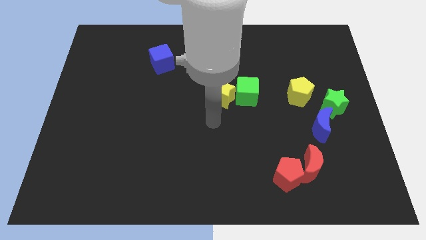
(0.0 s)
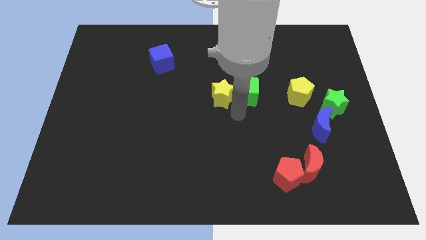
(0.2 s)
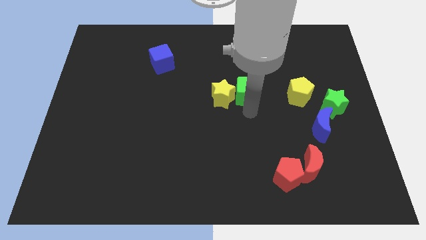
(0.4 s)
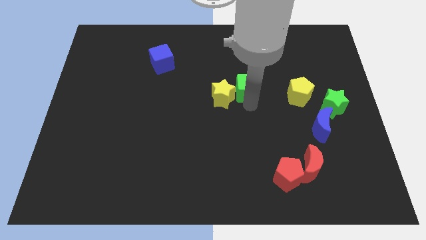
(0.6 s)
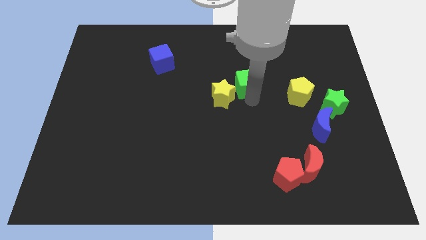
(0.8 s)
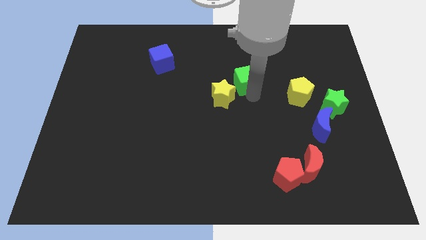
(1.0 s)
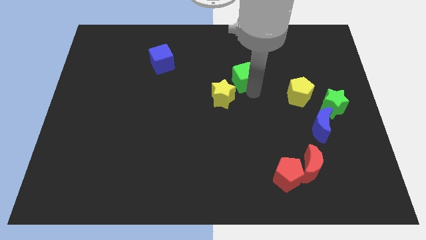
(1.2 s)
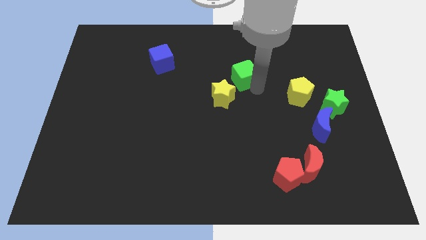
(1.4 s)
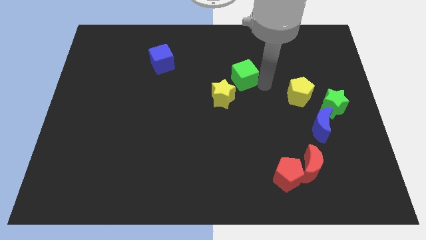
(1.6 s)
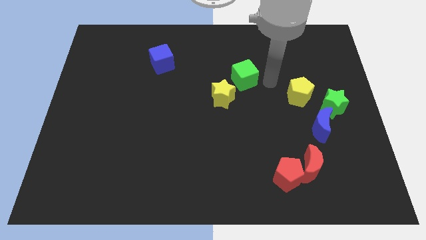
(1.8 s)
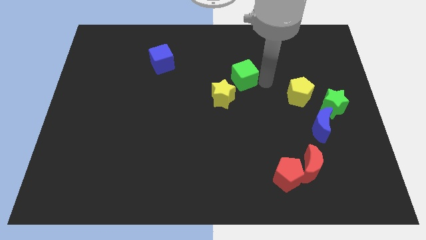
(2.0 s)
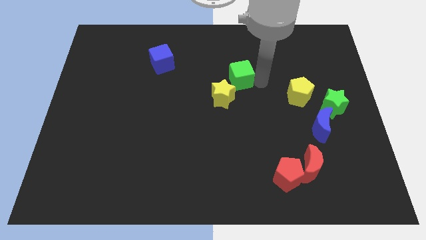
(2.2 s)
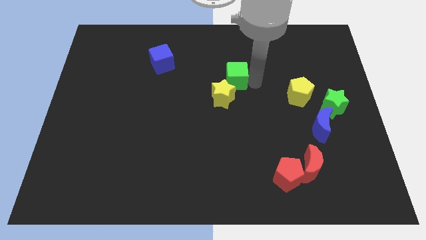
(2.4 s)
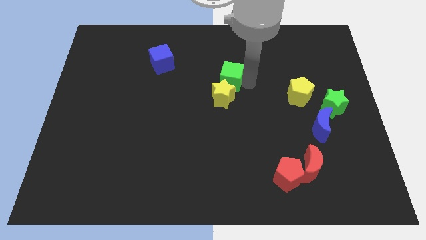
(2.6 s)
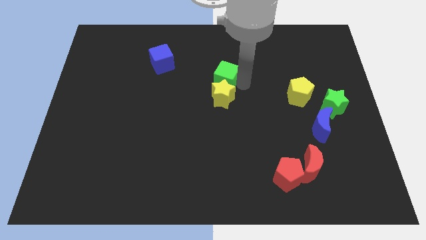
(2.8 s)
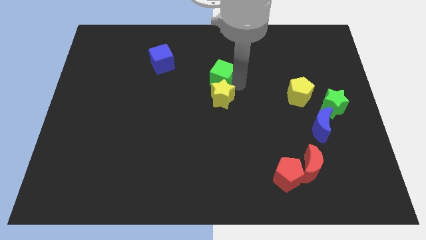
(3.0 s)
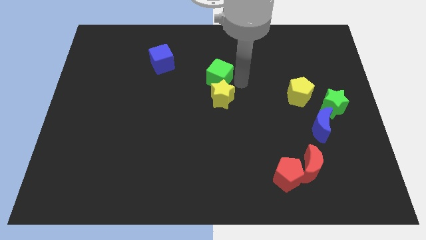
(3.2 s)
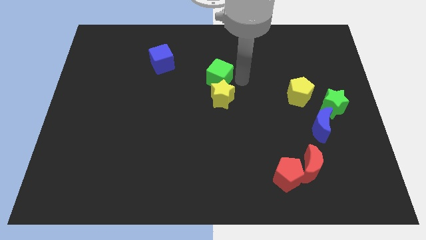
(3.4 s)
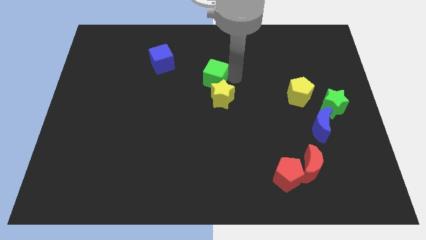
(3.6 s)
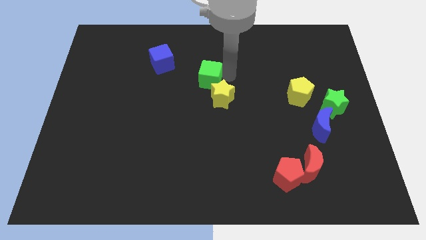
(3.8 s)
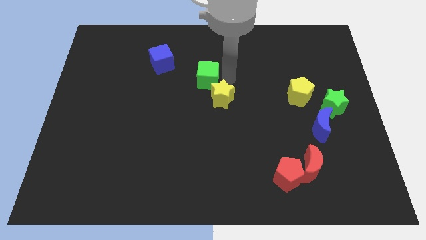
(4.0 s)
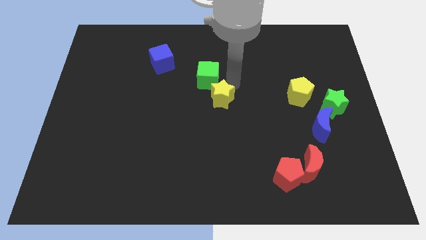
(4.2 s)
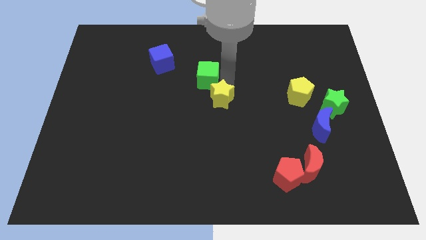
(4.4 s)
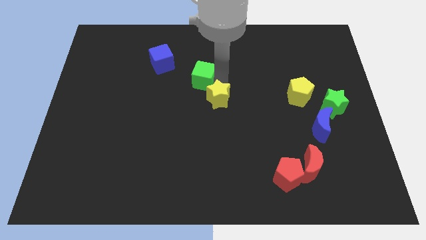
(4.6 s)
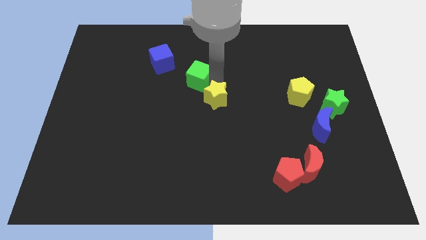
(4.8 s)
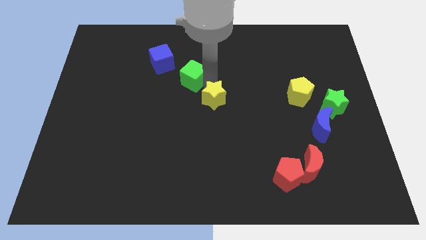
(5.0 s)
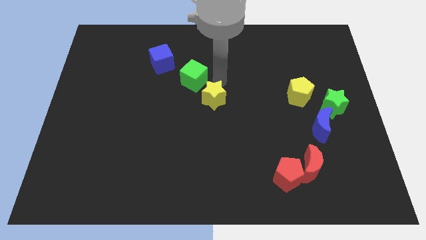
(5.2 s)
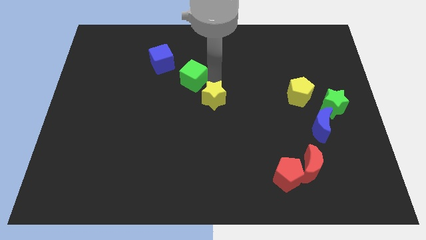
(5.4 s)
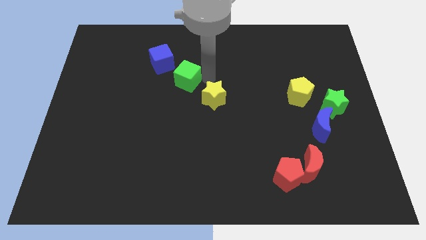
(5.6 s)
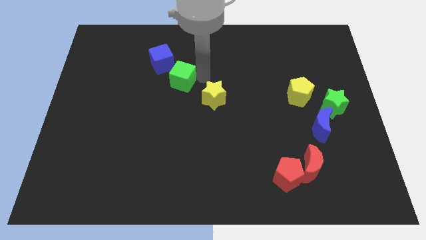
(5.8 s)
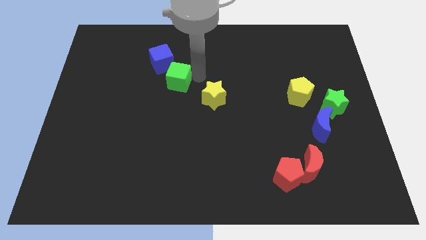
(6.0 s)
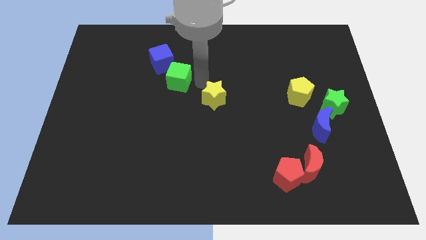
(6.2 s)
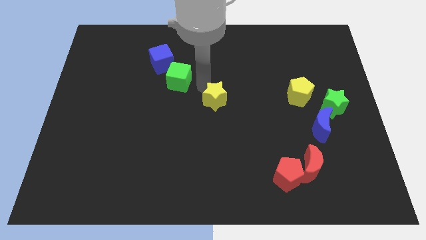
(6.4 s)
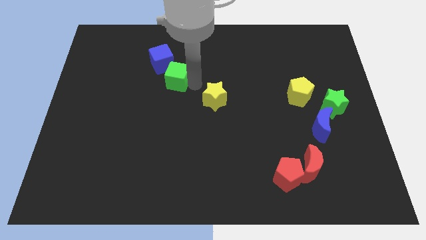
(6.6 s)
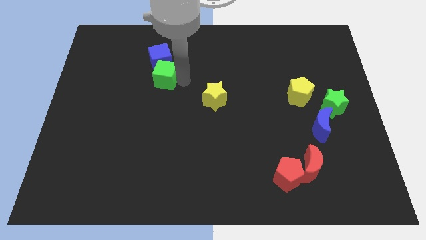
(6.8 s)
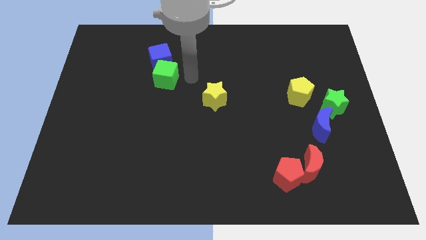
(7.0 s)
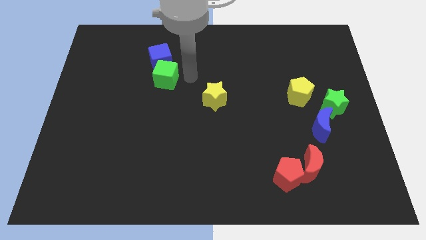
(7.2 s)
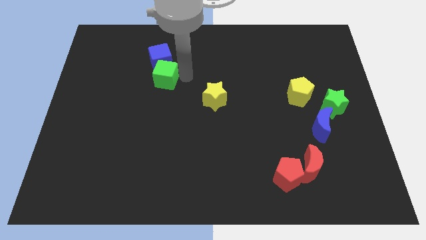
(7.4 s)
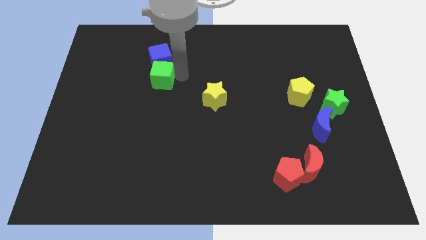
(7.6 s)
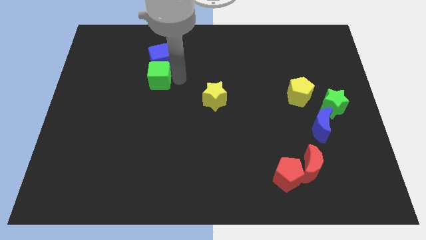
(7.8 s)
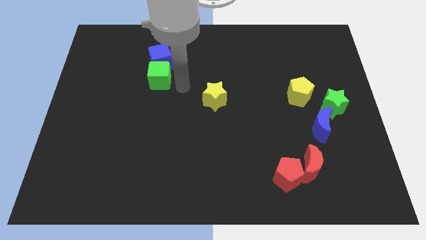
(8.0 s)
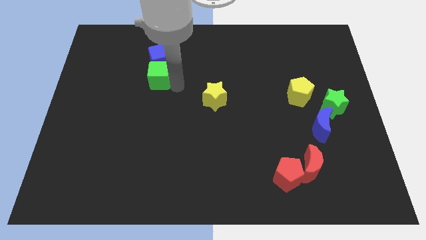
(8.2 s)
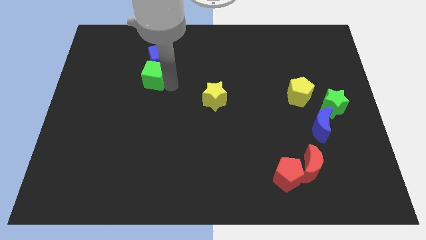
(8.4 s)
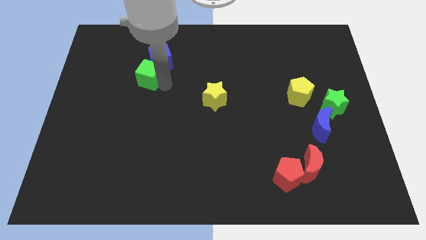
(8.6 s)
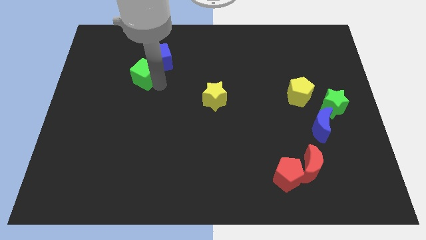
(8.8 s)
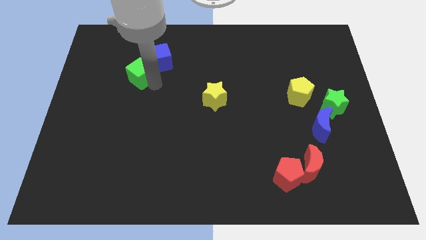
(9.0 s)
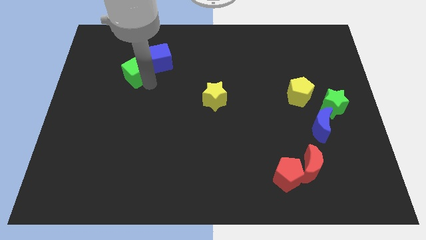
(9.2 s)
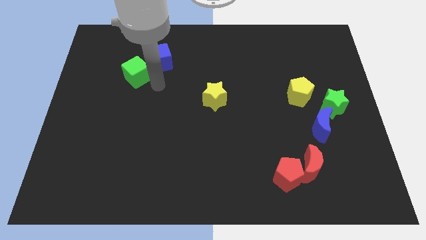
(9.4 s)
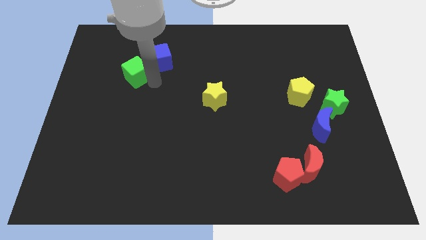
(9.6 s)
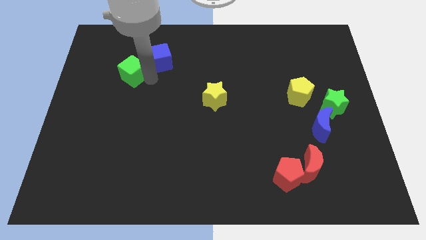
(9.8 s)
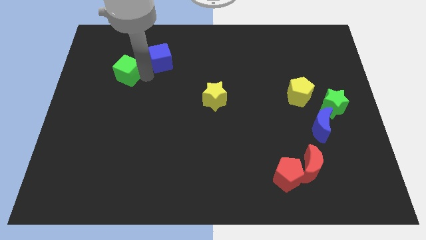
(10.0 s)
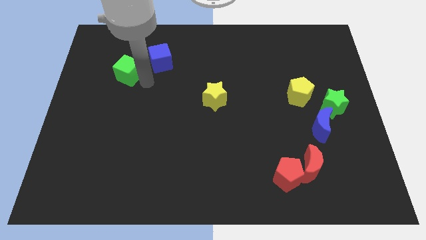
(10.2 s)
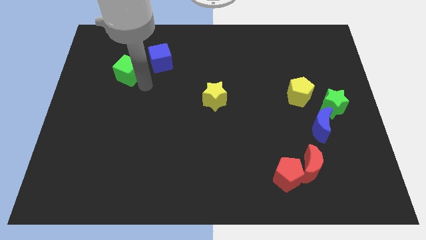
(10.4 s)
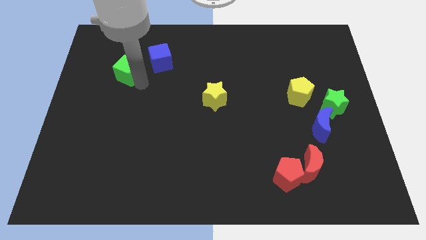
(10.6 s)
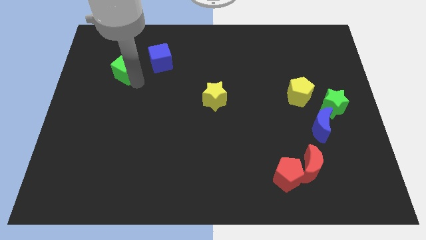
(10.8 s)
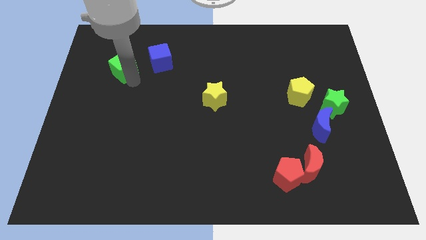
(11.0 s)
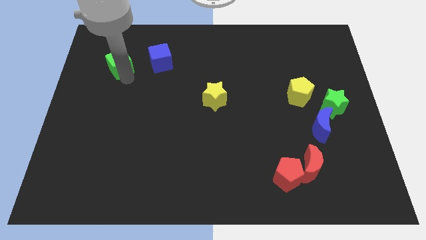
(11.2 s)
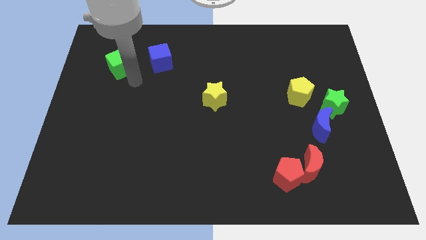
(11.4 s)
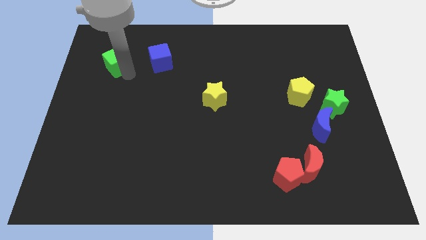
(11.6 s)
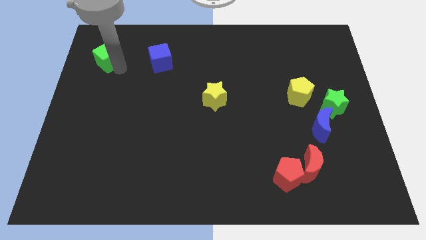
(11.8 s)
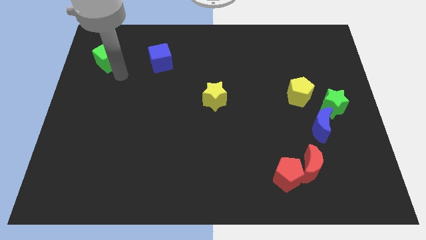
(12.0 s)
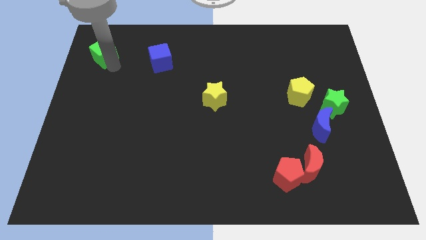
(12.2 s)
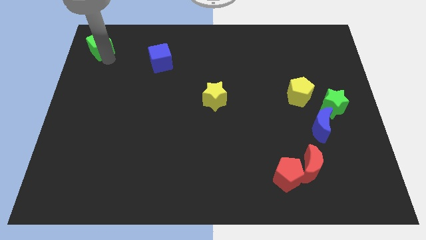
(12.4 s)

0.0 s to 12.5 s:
push the green cube to the top left corner

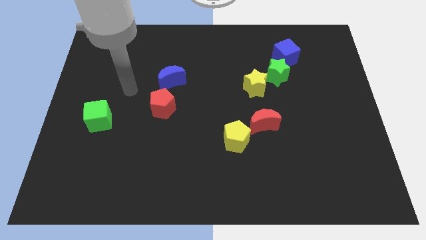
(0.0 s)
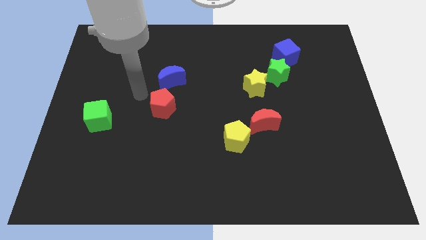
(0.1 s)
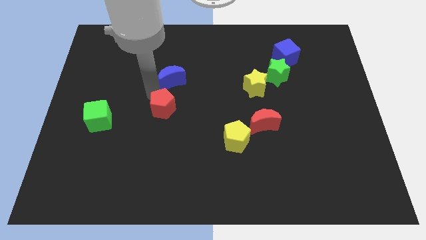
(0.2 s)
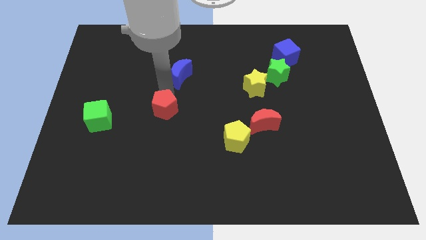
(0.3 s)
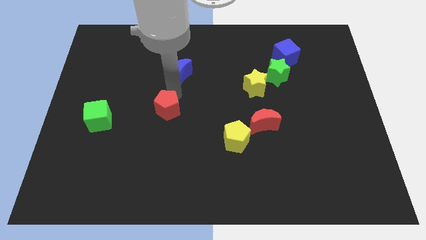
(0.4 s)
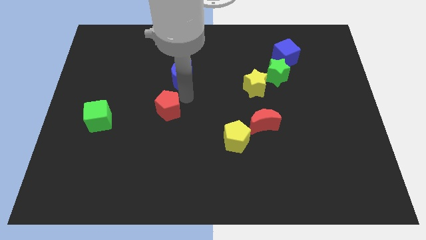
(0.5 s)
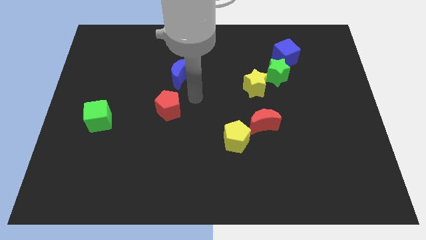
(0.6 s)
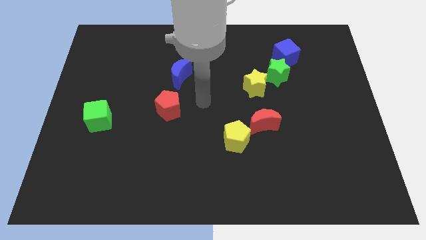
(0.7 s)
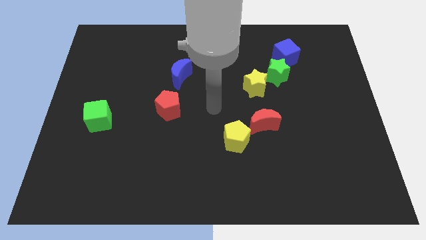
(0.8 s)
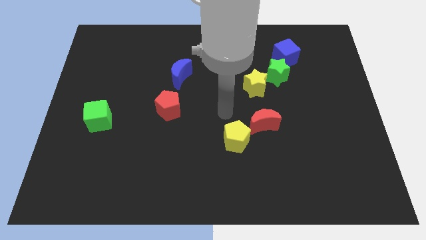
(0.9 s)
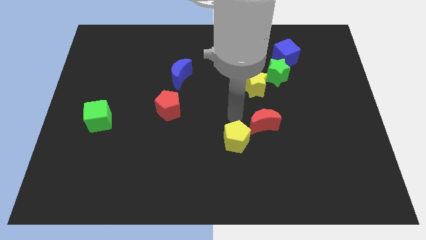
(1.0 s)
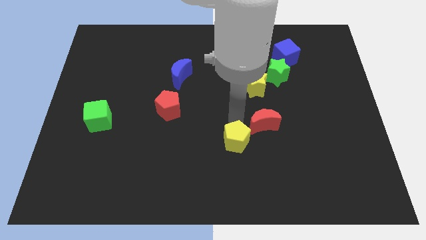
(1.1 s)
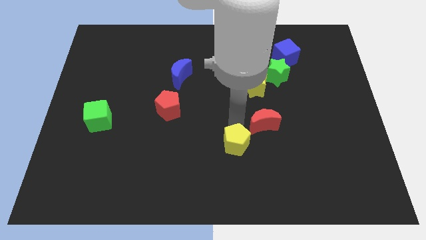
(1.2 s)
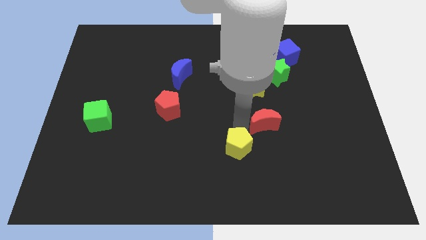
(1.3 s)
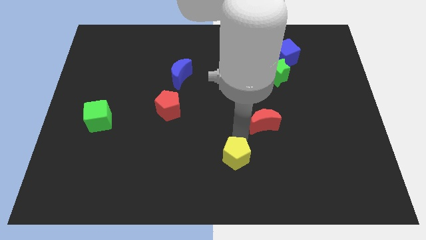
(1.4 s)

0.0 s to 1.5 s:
put the yellow pentagon to the bottom side
